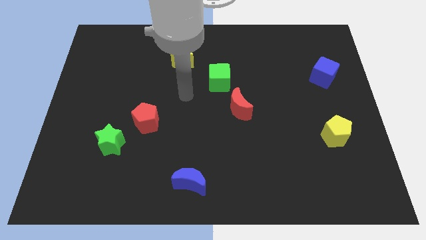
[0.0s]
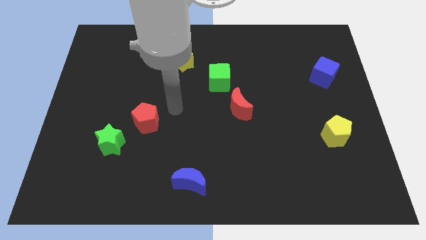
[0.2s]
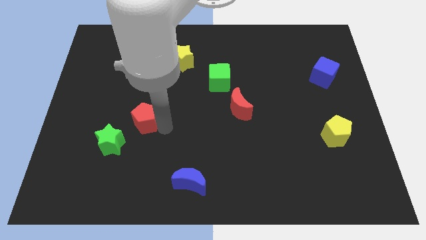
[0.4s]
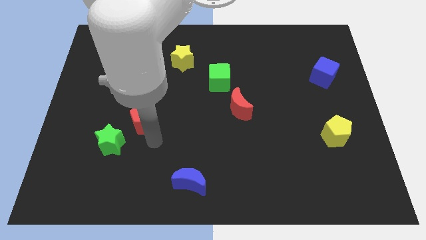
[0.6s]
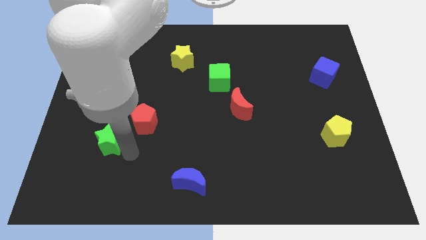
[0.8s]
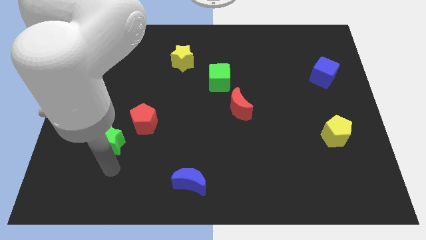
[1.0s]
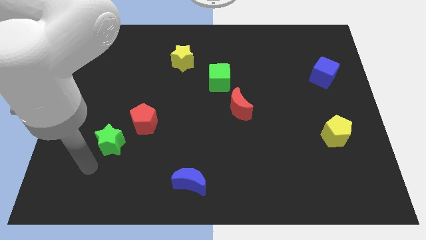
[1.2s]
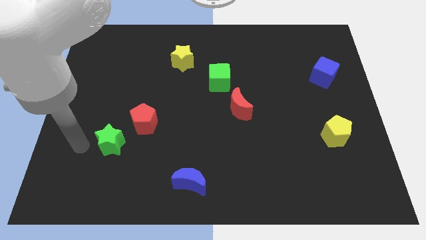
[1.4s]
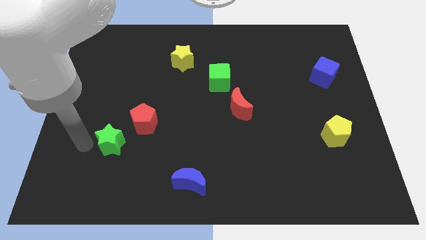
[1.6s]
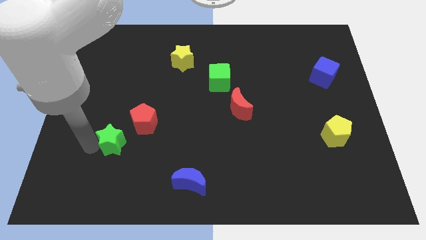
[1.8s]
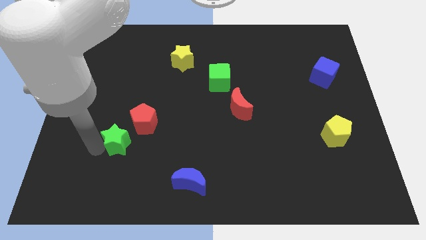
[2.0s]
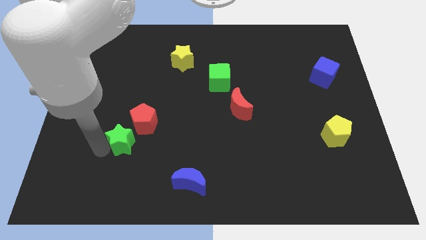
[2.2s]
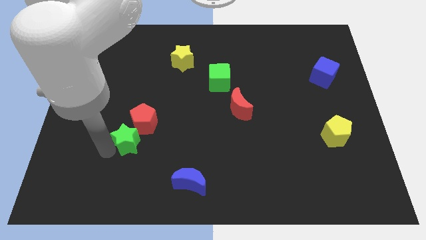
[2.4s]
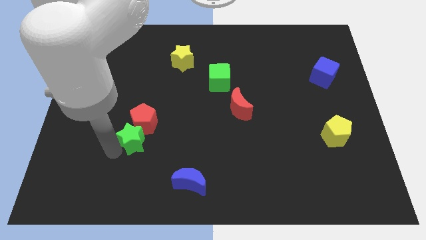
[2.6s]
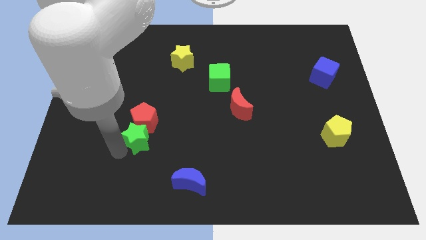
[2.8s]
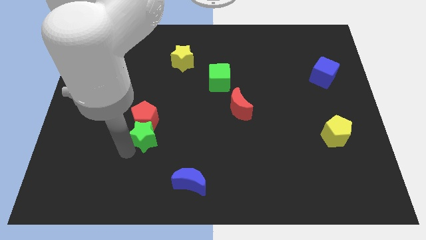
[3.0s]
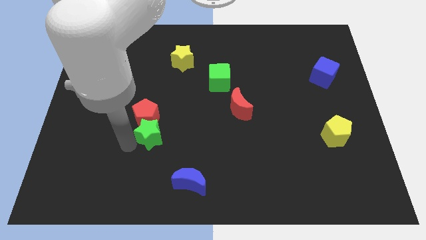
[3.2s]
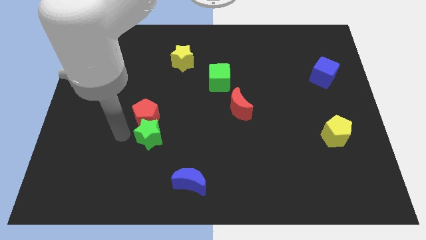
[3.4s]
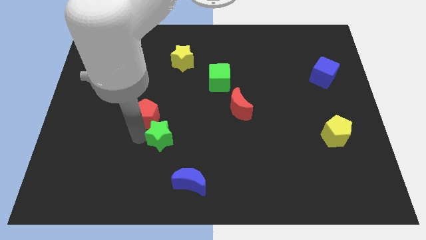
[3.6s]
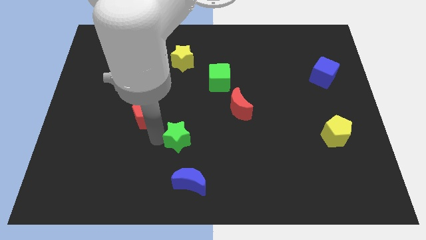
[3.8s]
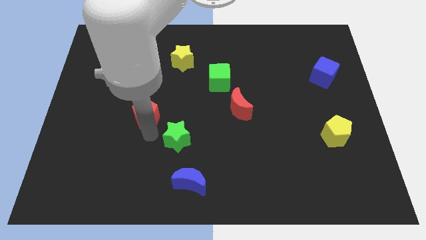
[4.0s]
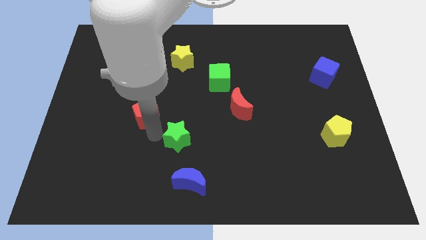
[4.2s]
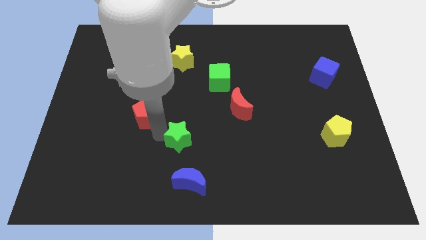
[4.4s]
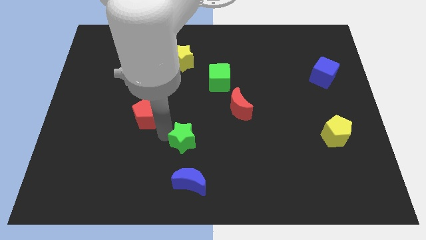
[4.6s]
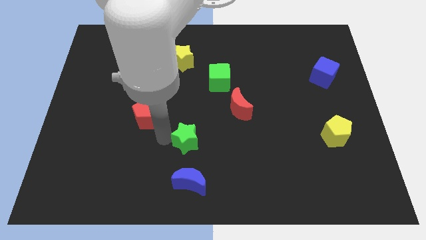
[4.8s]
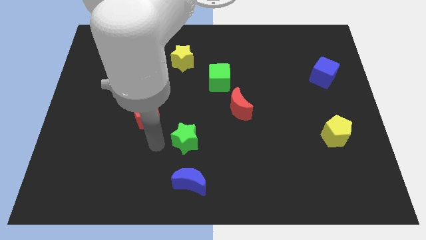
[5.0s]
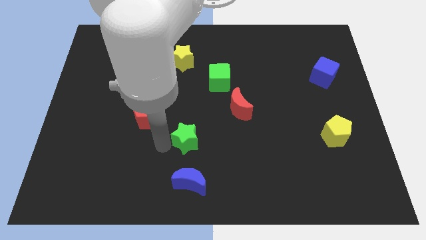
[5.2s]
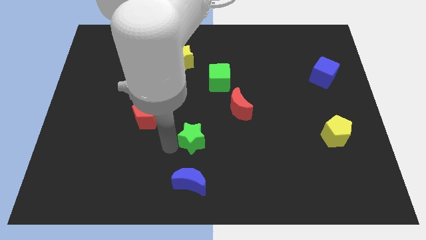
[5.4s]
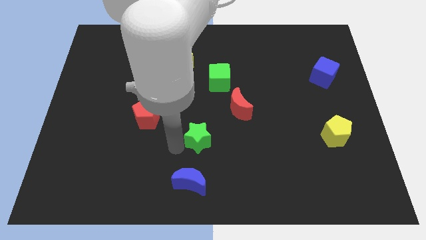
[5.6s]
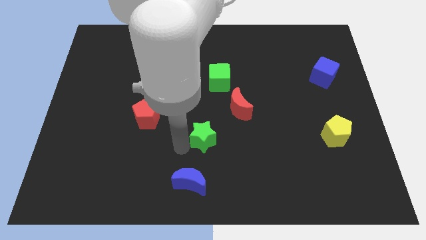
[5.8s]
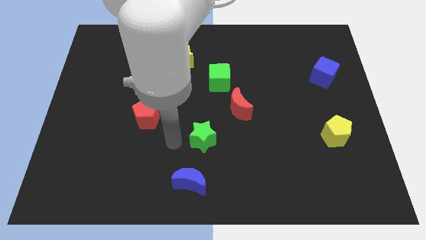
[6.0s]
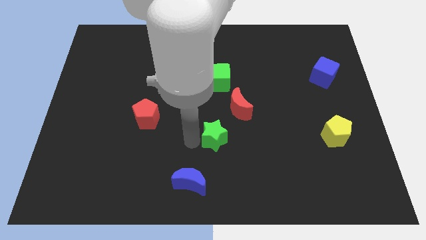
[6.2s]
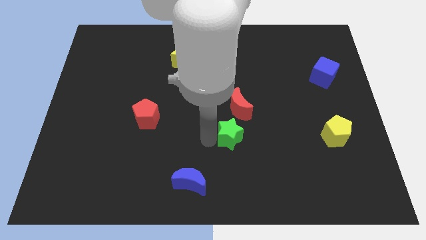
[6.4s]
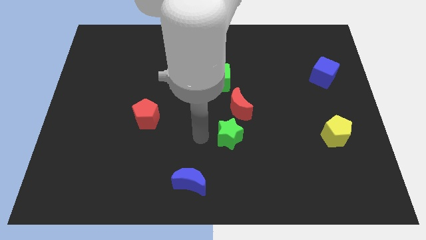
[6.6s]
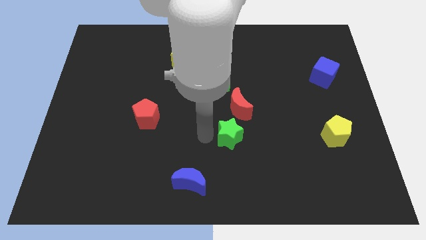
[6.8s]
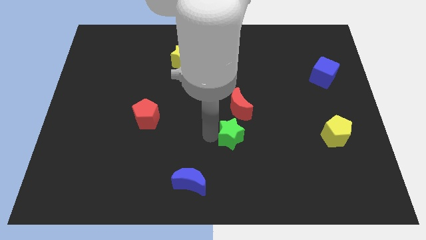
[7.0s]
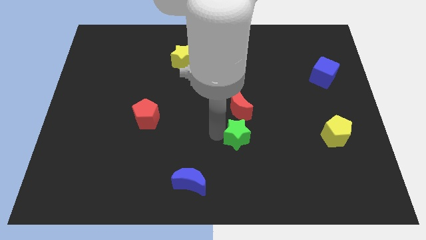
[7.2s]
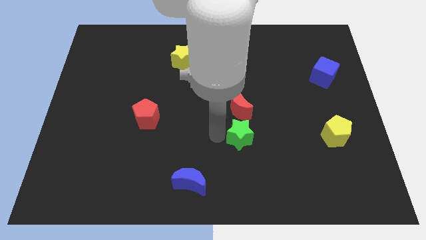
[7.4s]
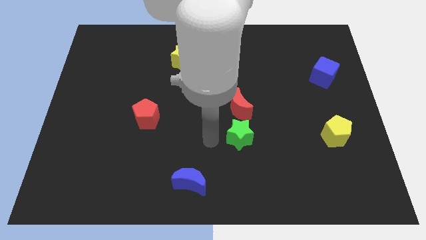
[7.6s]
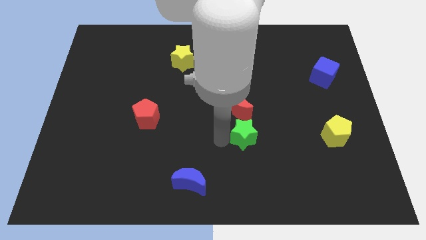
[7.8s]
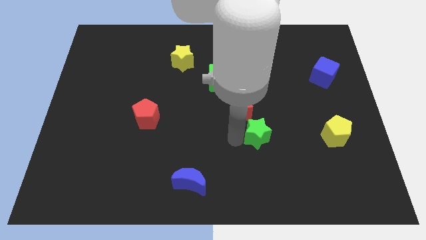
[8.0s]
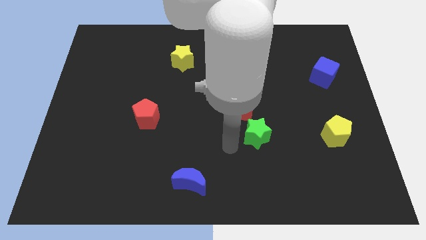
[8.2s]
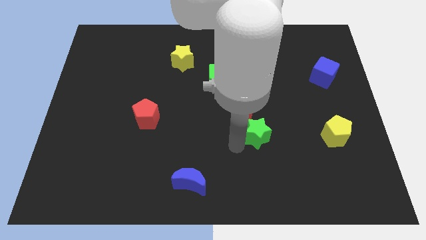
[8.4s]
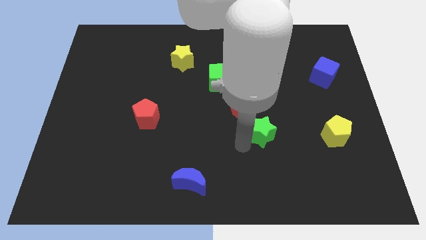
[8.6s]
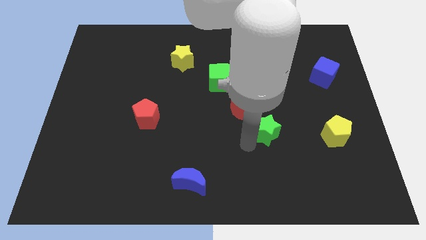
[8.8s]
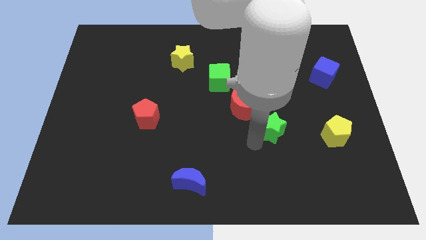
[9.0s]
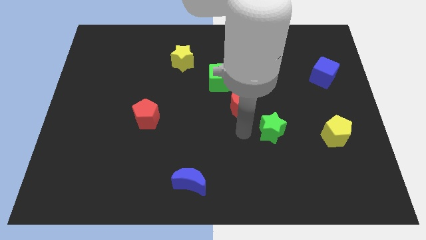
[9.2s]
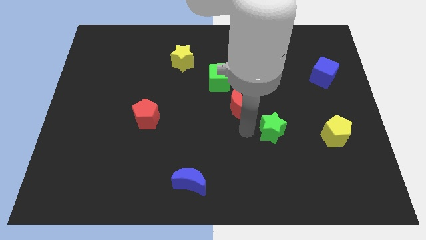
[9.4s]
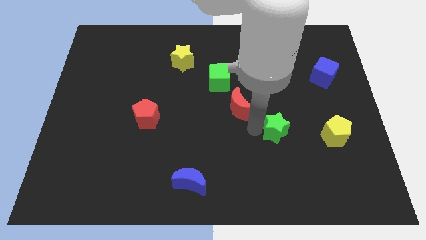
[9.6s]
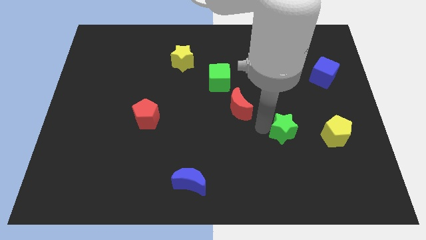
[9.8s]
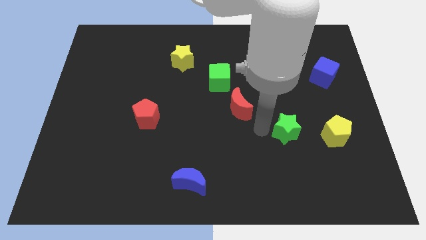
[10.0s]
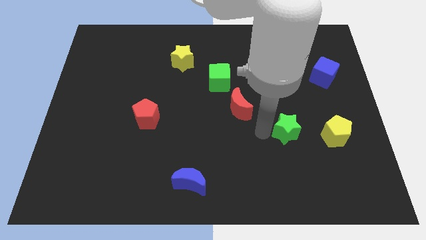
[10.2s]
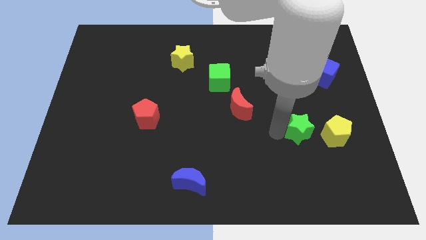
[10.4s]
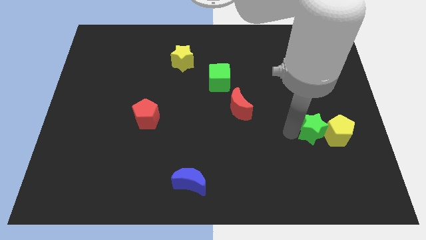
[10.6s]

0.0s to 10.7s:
slide the green star towards the yellow pentagon

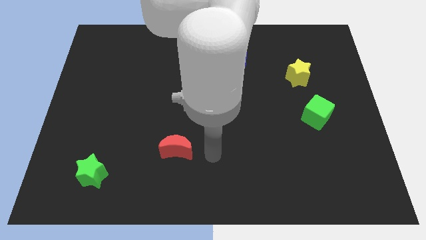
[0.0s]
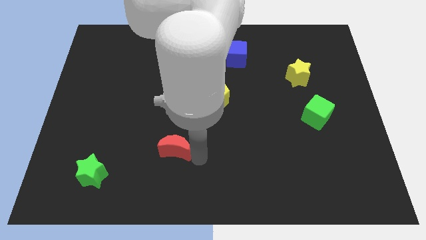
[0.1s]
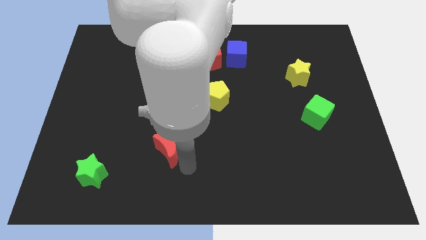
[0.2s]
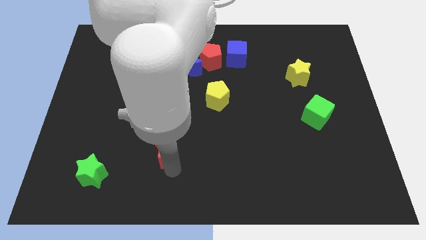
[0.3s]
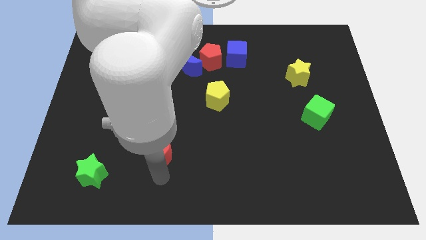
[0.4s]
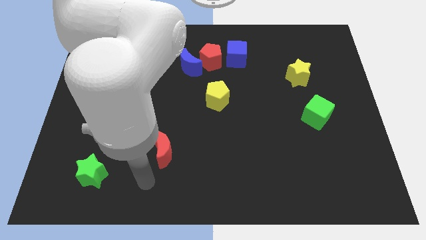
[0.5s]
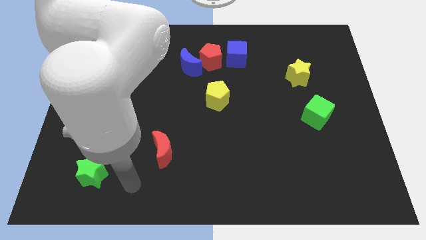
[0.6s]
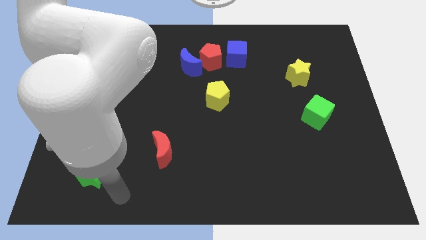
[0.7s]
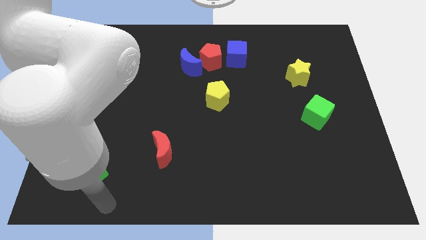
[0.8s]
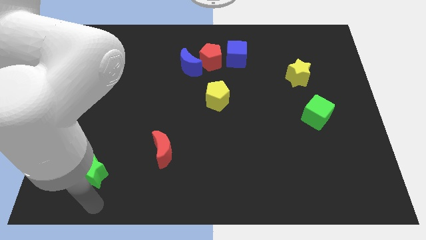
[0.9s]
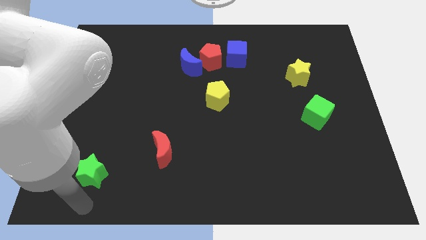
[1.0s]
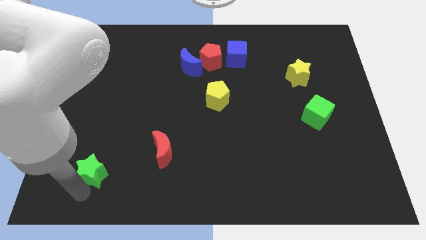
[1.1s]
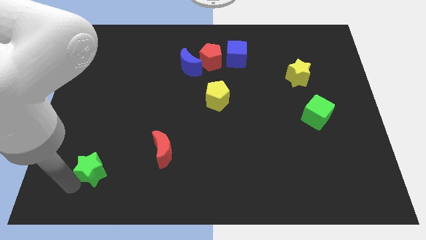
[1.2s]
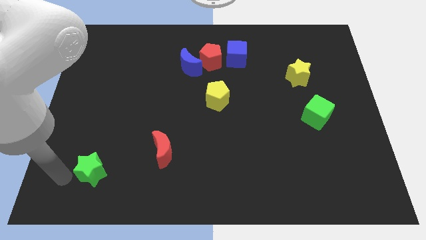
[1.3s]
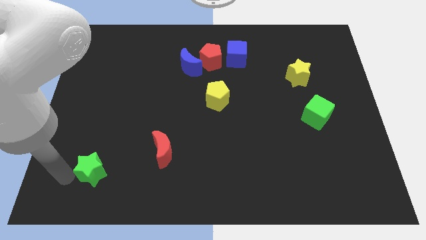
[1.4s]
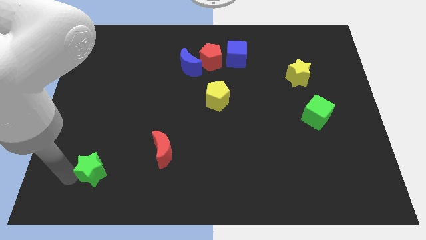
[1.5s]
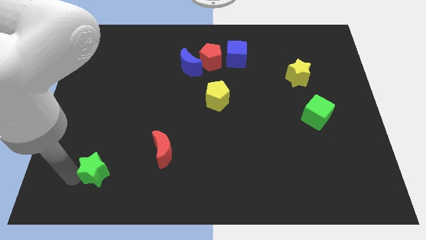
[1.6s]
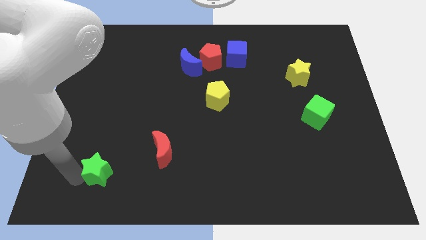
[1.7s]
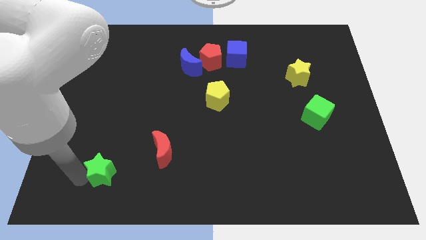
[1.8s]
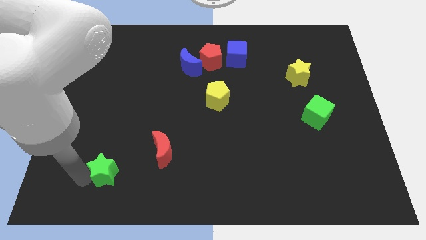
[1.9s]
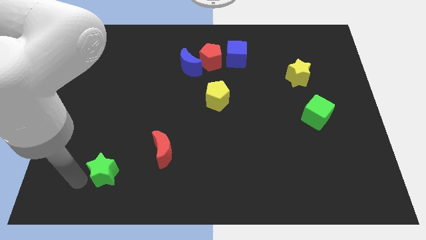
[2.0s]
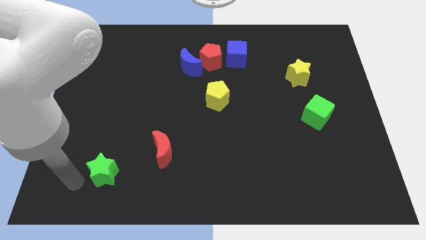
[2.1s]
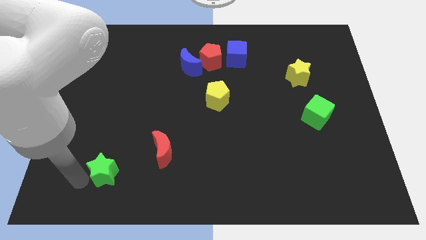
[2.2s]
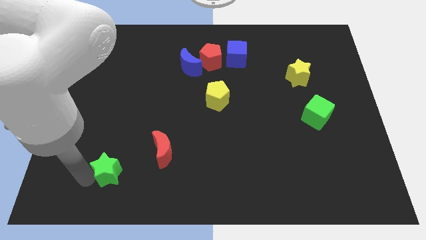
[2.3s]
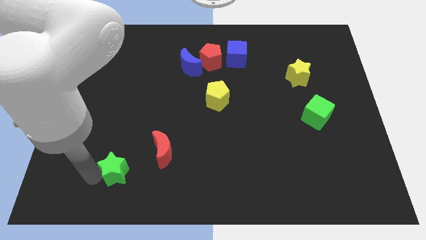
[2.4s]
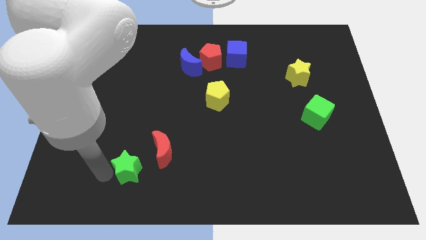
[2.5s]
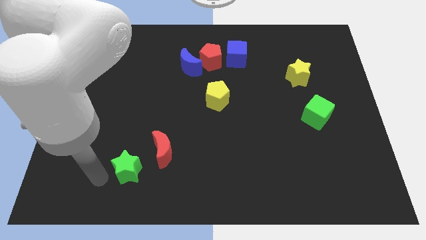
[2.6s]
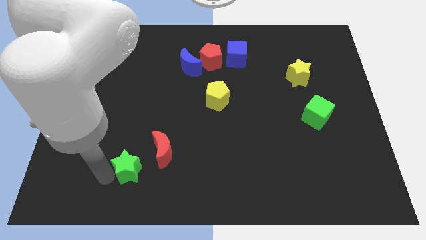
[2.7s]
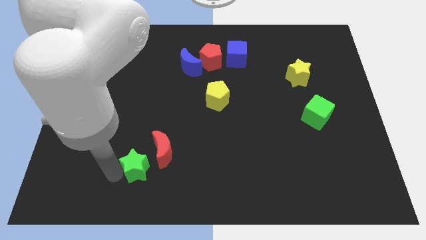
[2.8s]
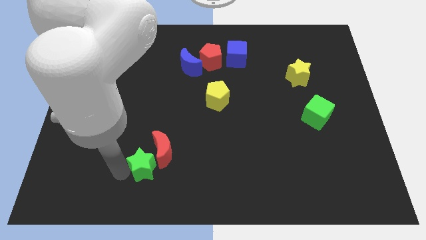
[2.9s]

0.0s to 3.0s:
move the green star towards the red moon
